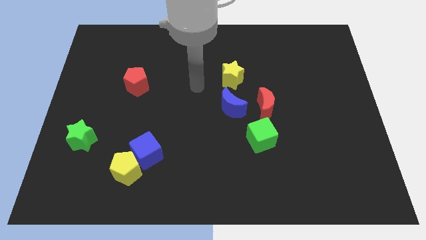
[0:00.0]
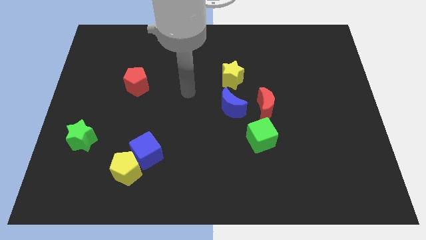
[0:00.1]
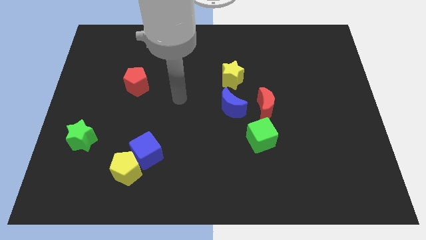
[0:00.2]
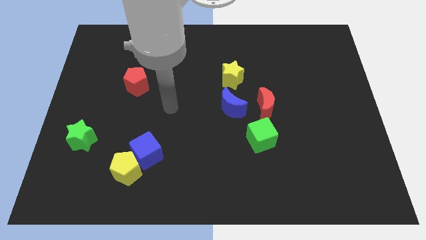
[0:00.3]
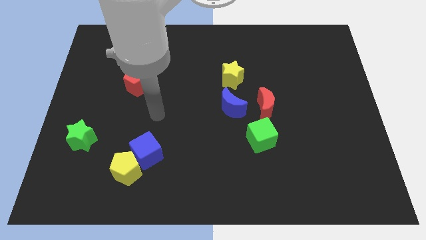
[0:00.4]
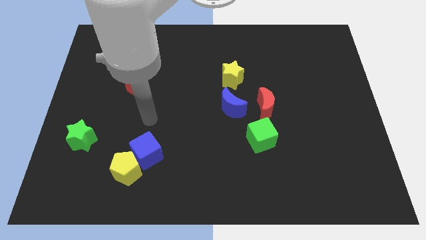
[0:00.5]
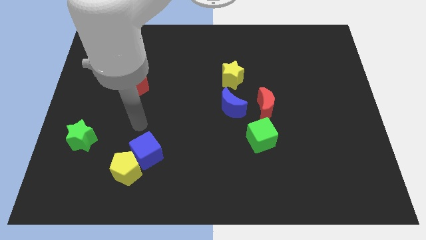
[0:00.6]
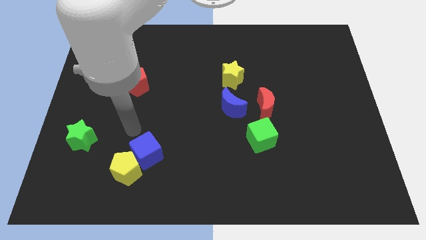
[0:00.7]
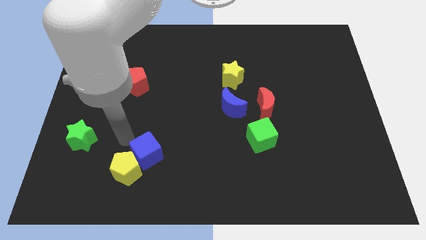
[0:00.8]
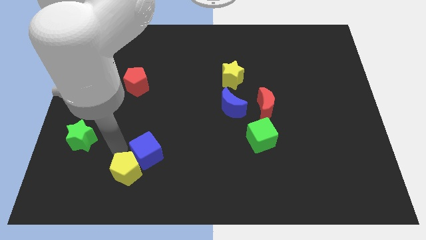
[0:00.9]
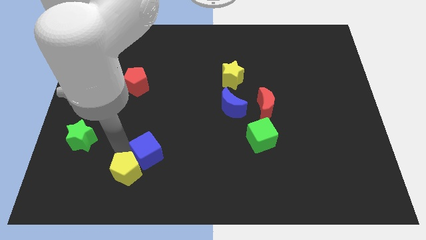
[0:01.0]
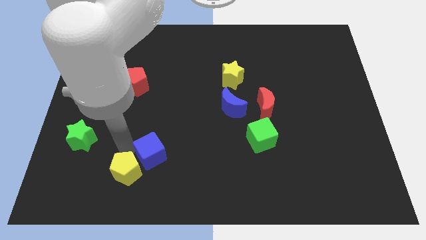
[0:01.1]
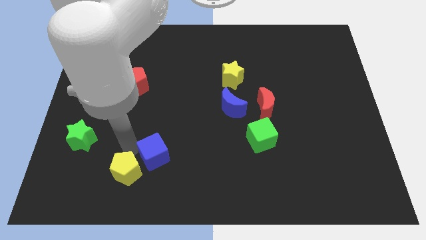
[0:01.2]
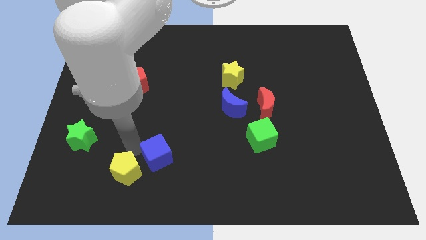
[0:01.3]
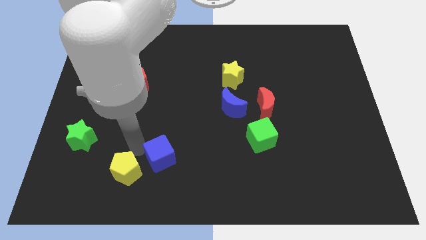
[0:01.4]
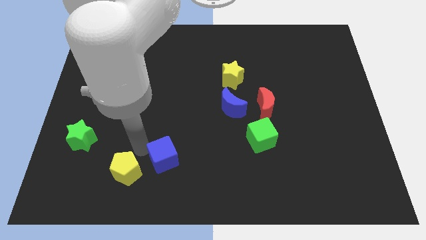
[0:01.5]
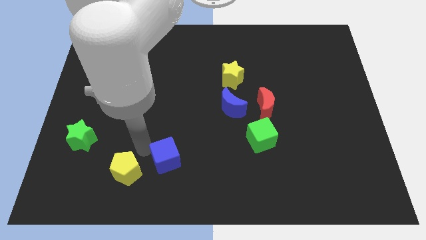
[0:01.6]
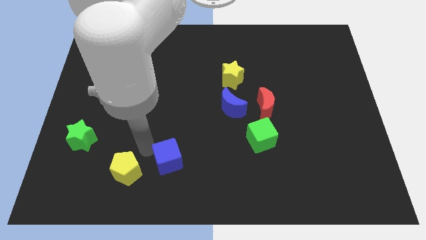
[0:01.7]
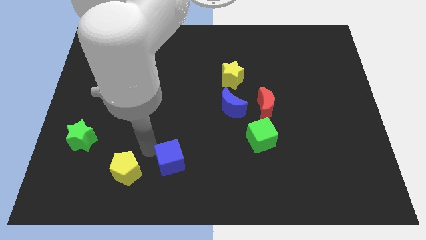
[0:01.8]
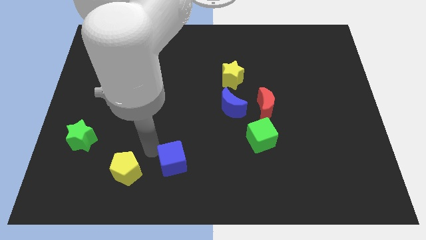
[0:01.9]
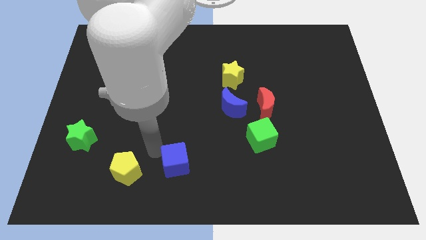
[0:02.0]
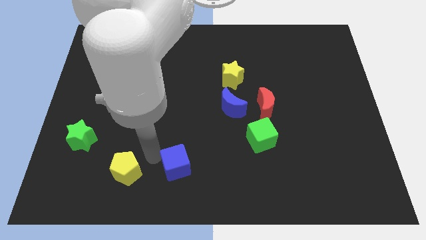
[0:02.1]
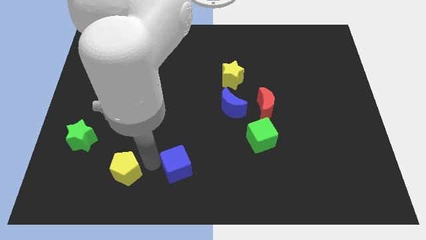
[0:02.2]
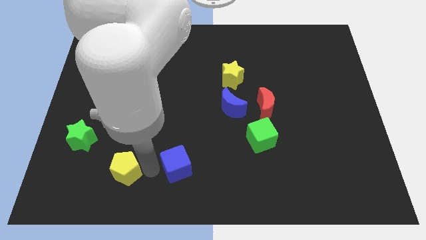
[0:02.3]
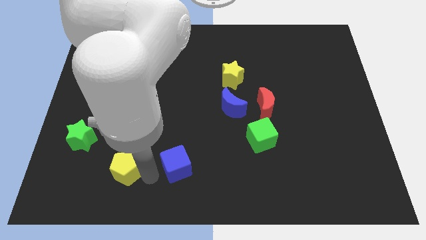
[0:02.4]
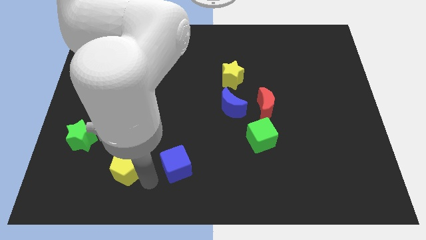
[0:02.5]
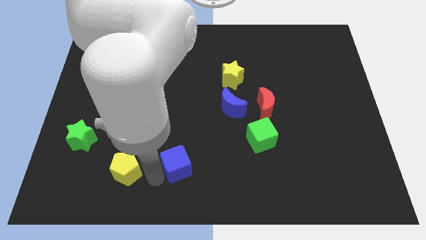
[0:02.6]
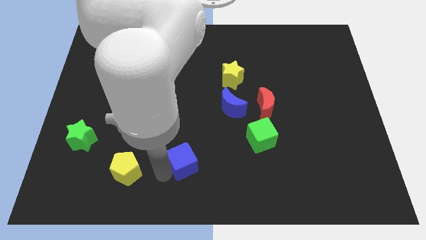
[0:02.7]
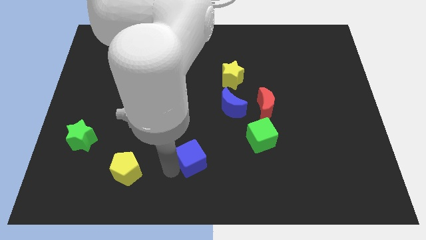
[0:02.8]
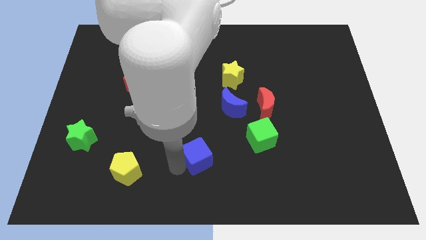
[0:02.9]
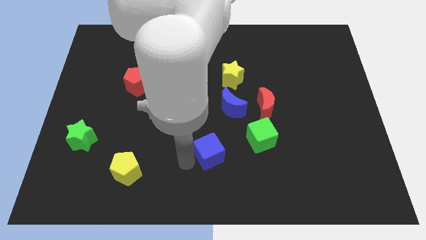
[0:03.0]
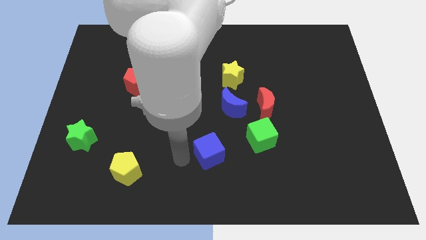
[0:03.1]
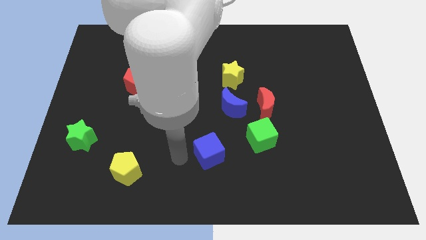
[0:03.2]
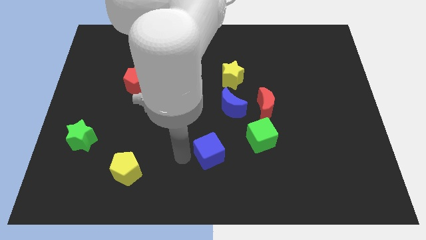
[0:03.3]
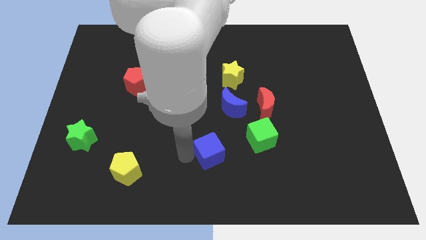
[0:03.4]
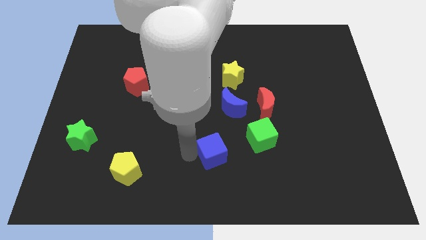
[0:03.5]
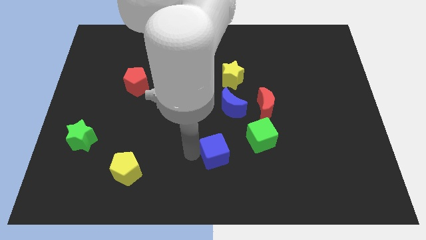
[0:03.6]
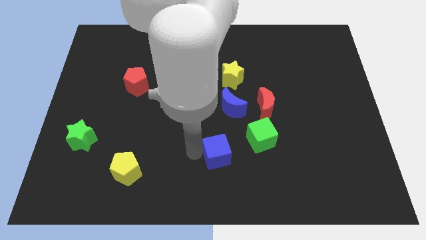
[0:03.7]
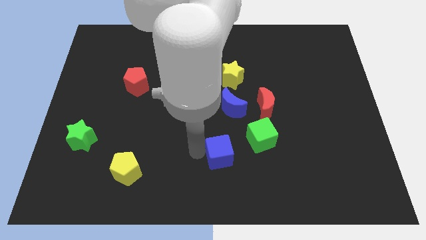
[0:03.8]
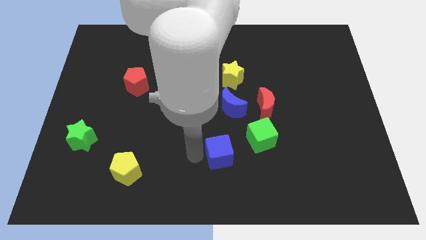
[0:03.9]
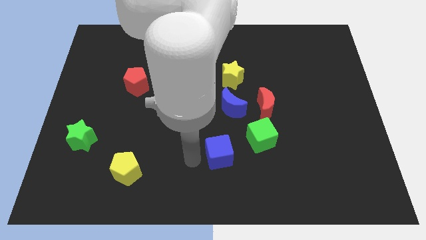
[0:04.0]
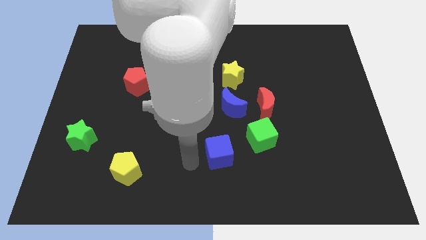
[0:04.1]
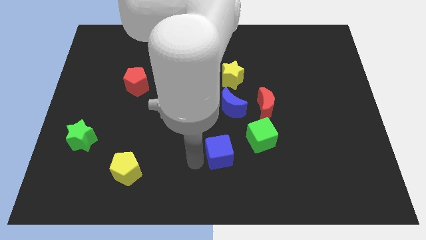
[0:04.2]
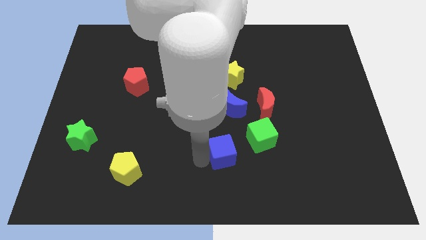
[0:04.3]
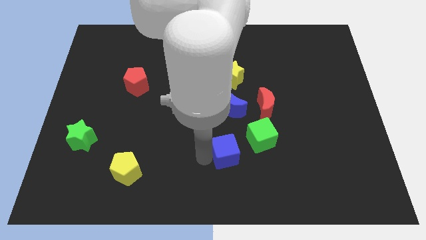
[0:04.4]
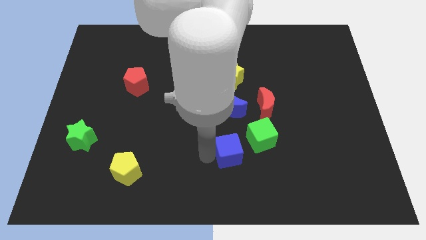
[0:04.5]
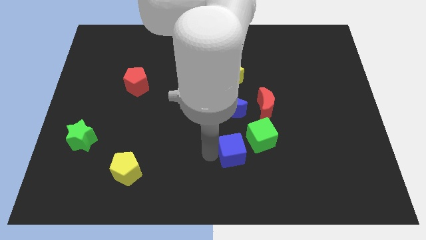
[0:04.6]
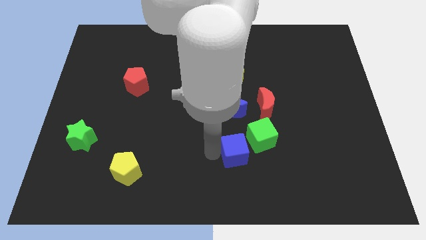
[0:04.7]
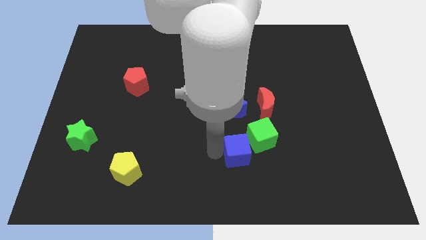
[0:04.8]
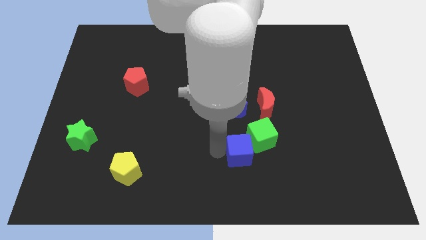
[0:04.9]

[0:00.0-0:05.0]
move the blue cube to the right

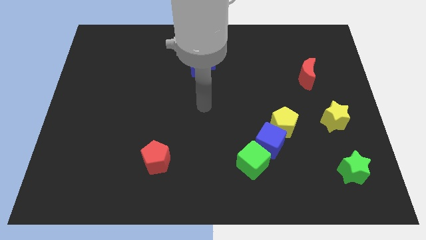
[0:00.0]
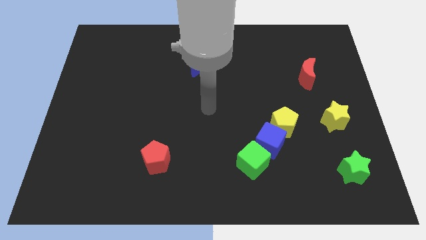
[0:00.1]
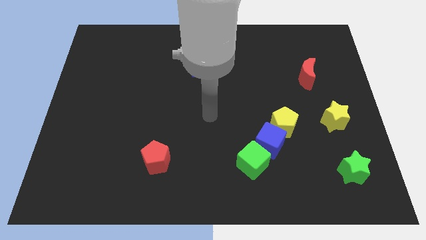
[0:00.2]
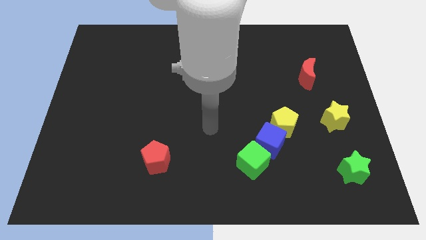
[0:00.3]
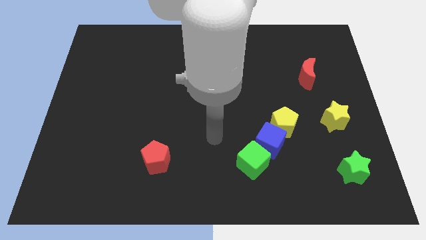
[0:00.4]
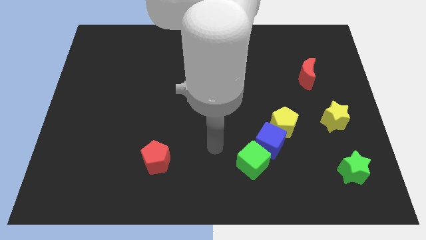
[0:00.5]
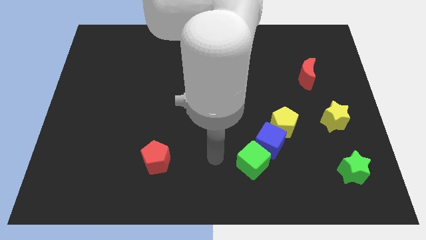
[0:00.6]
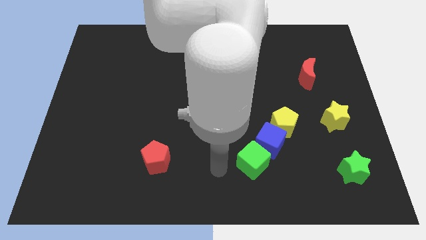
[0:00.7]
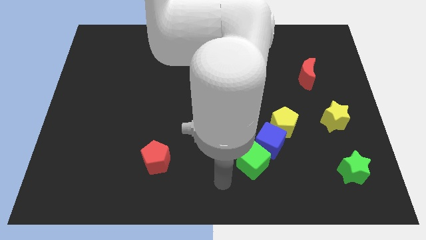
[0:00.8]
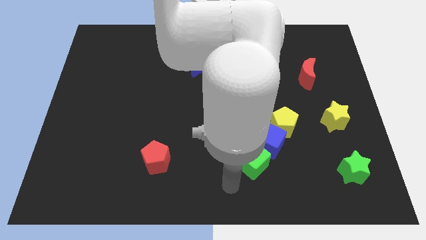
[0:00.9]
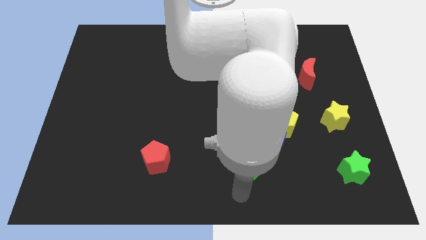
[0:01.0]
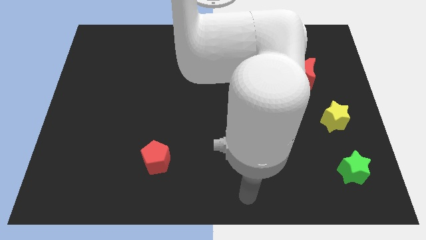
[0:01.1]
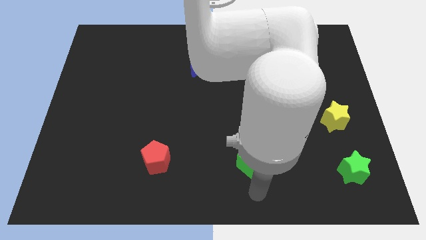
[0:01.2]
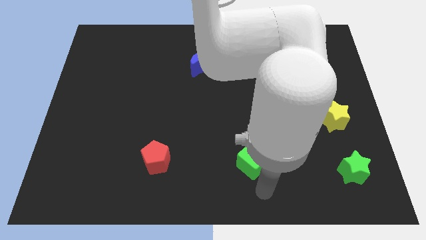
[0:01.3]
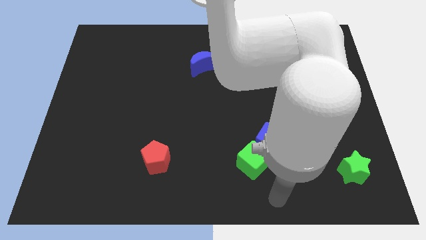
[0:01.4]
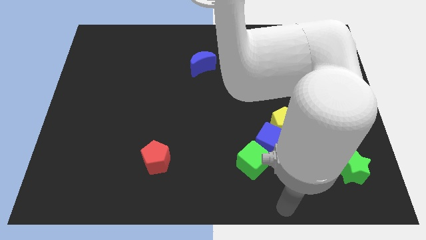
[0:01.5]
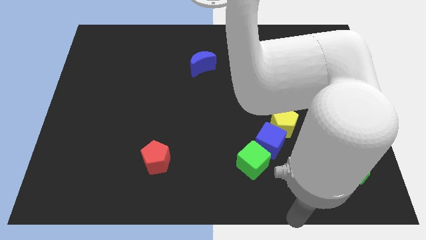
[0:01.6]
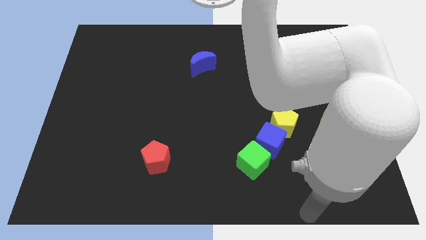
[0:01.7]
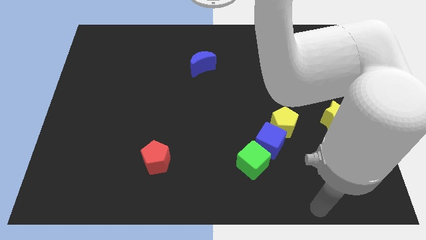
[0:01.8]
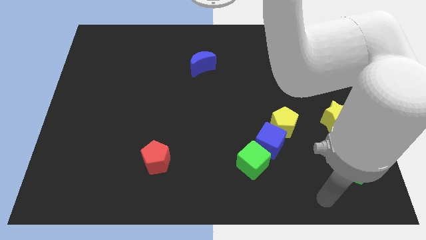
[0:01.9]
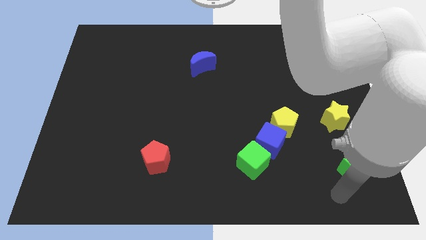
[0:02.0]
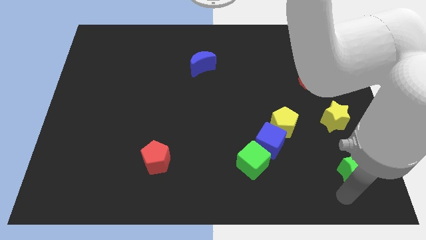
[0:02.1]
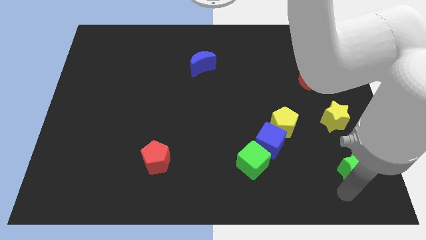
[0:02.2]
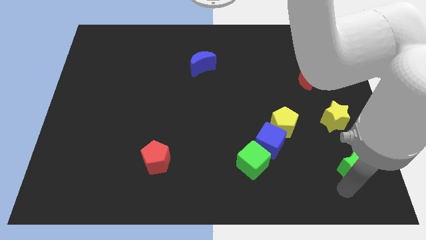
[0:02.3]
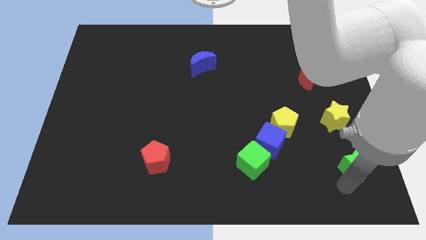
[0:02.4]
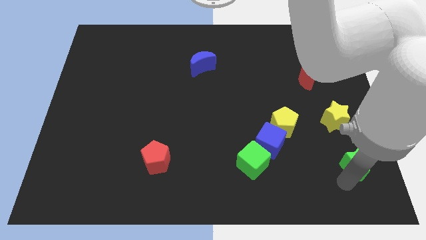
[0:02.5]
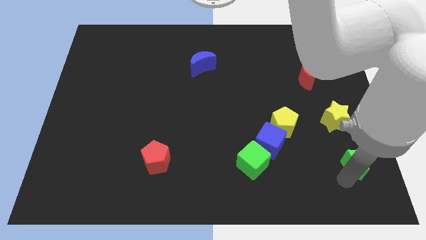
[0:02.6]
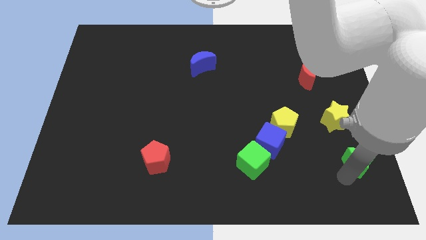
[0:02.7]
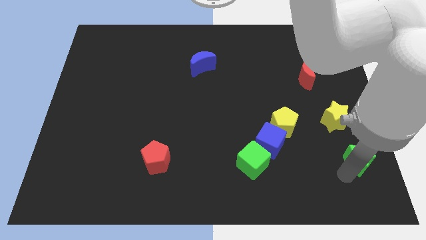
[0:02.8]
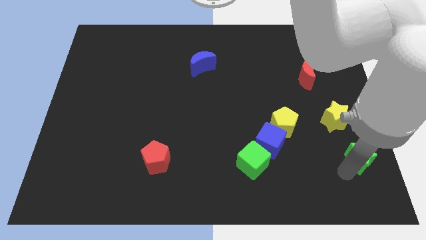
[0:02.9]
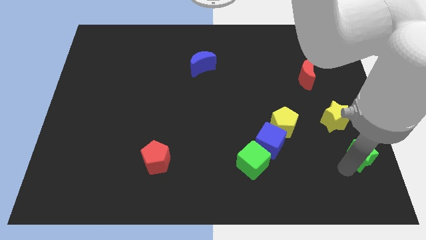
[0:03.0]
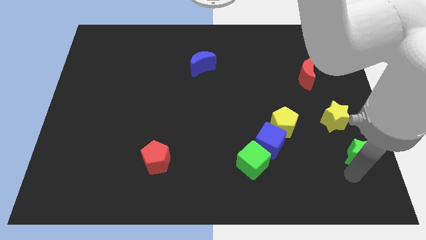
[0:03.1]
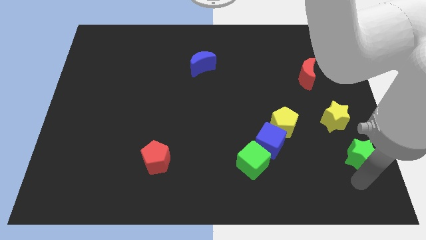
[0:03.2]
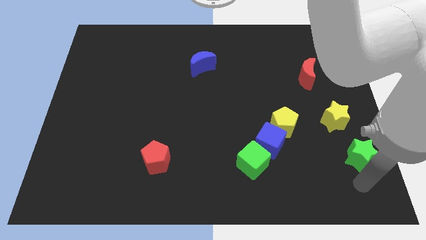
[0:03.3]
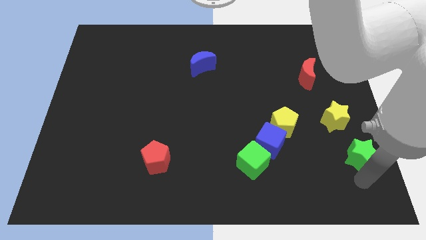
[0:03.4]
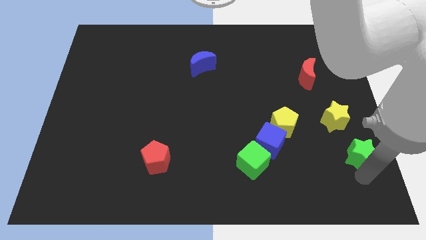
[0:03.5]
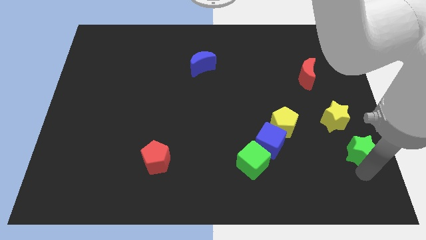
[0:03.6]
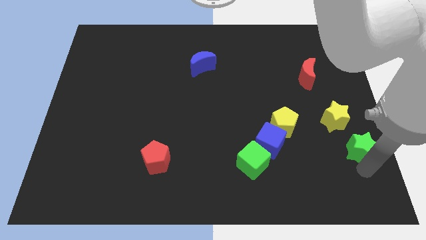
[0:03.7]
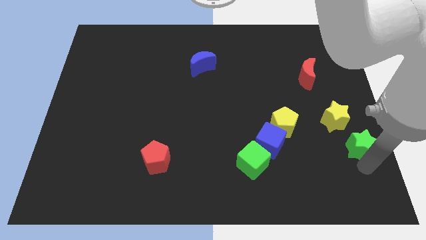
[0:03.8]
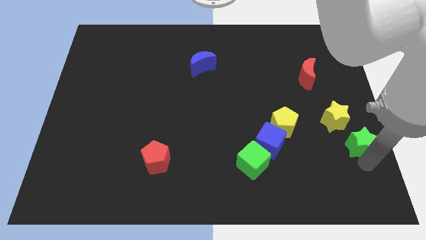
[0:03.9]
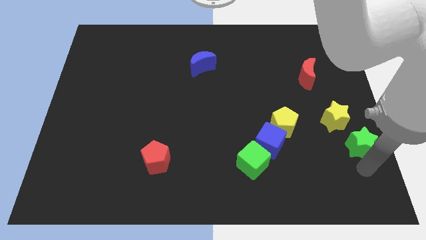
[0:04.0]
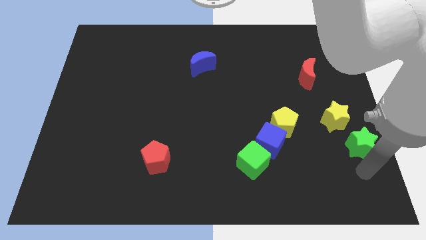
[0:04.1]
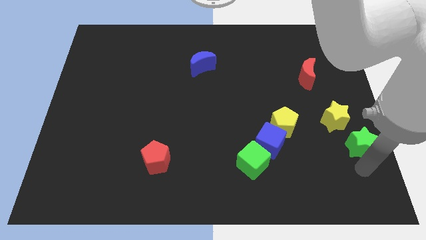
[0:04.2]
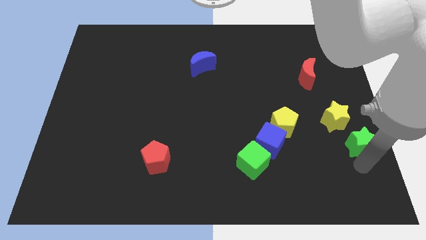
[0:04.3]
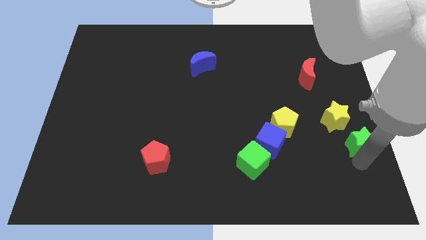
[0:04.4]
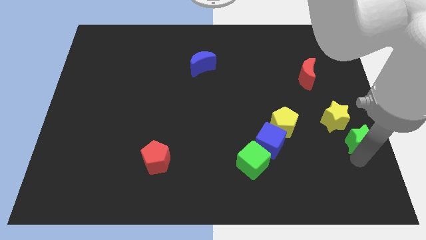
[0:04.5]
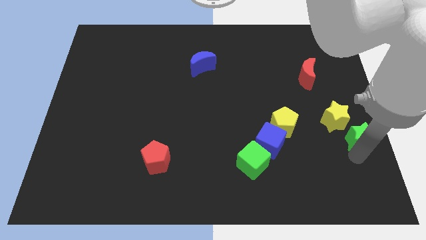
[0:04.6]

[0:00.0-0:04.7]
slightly move the green star up
